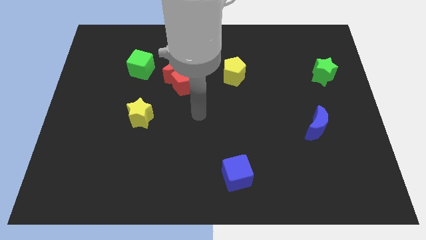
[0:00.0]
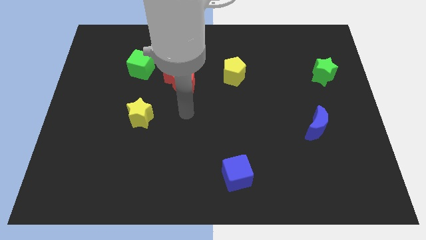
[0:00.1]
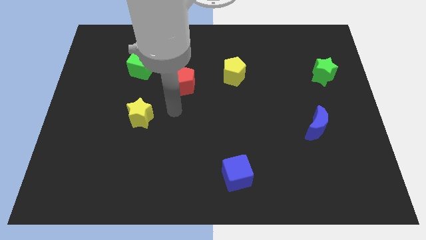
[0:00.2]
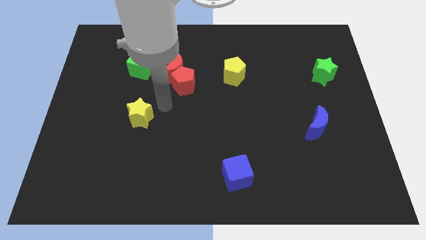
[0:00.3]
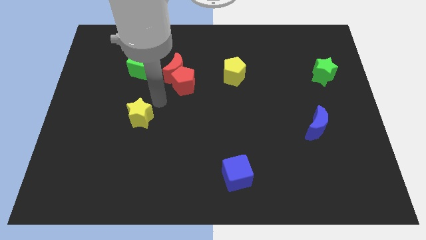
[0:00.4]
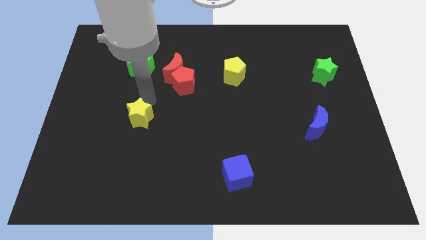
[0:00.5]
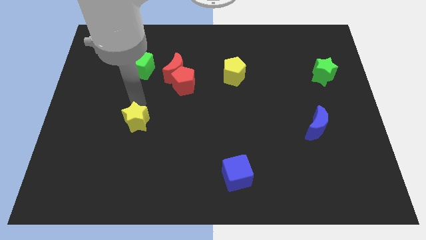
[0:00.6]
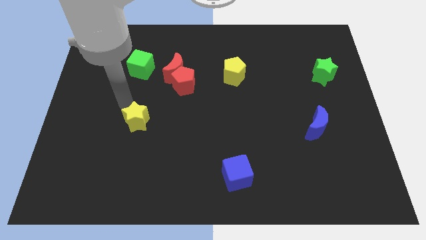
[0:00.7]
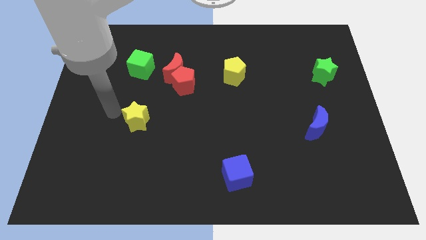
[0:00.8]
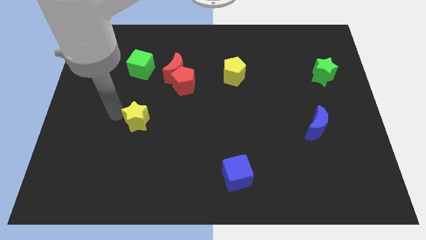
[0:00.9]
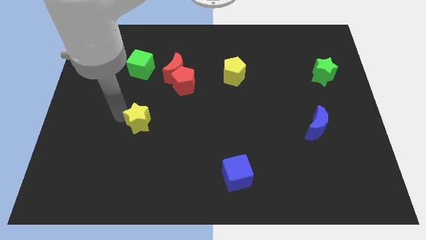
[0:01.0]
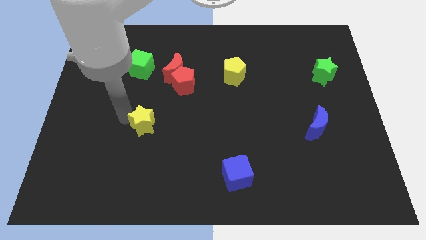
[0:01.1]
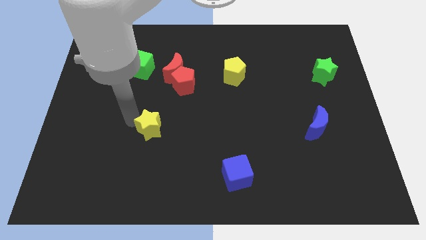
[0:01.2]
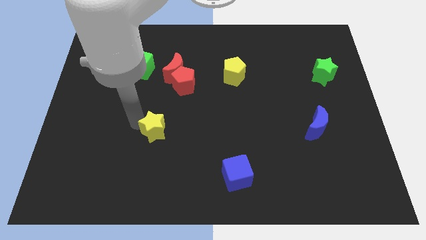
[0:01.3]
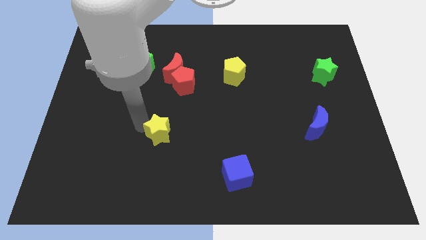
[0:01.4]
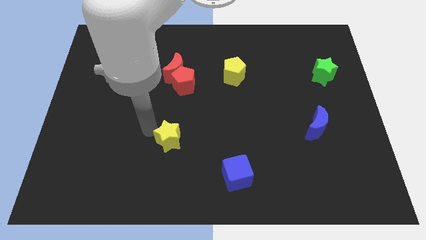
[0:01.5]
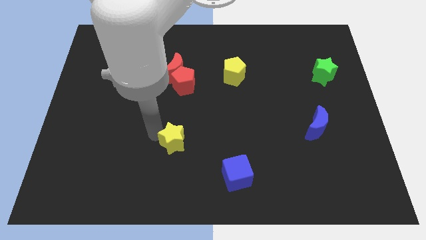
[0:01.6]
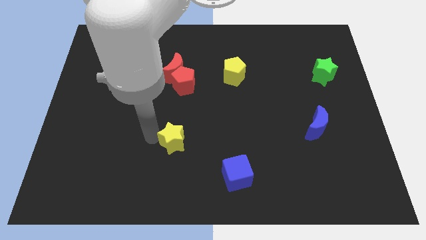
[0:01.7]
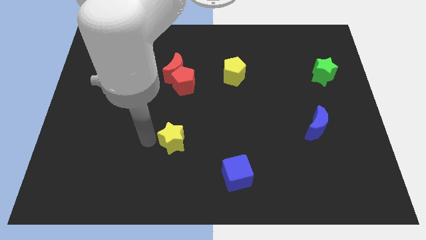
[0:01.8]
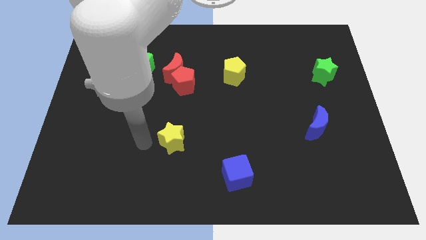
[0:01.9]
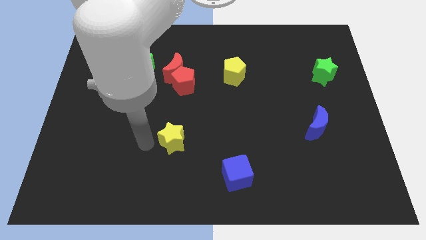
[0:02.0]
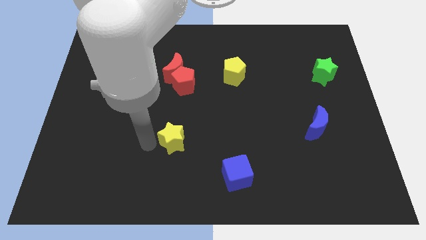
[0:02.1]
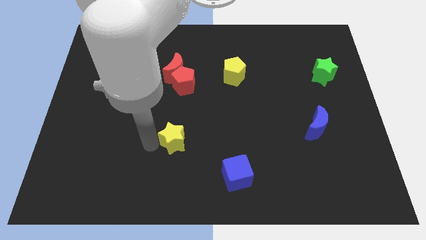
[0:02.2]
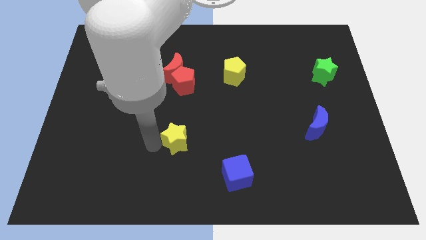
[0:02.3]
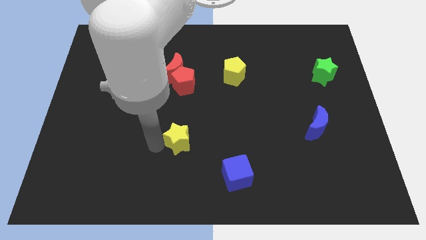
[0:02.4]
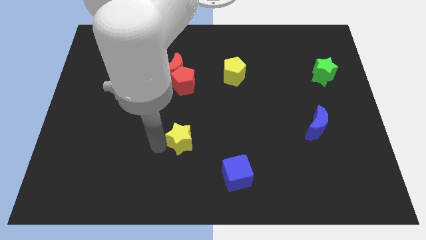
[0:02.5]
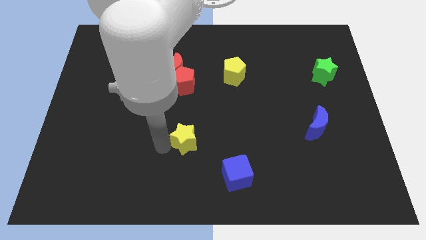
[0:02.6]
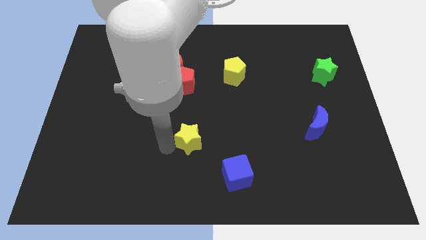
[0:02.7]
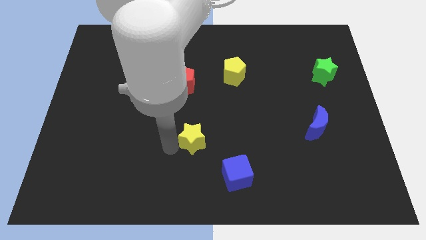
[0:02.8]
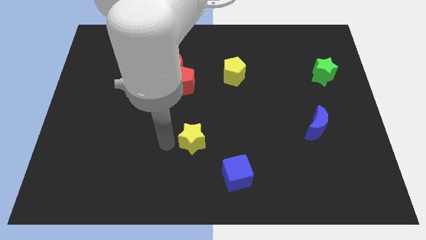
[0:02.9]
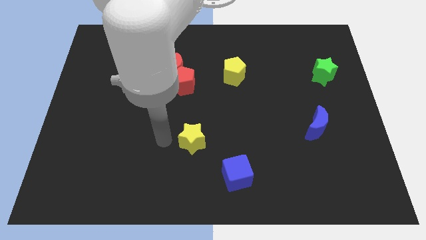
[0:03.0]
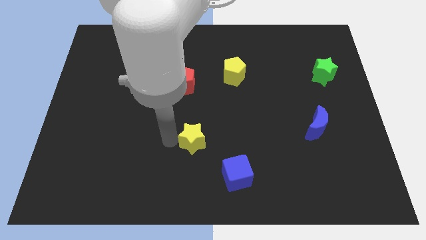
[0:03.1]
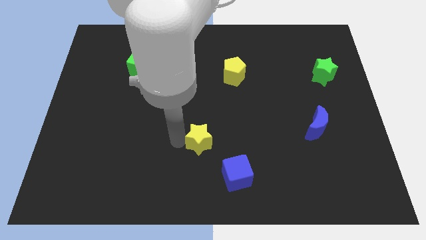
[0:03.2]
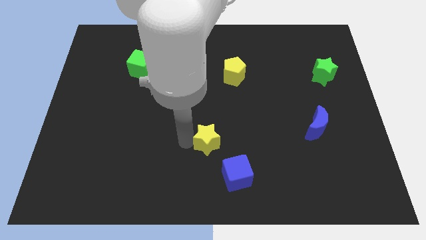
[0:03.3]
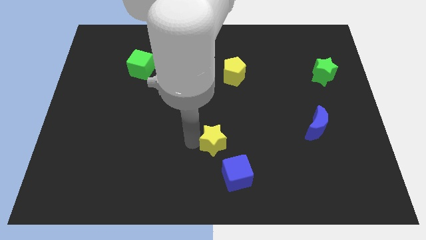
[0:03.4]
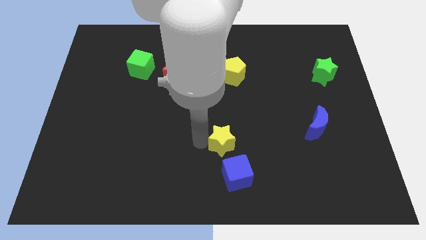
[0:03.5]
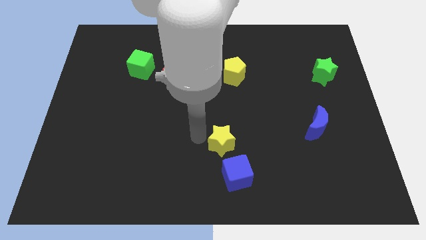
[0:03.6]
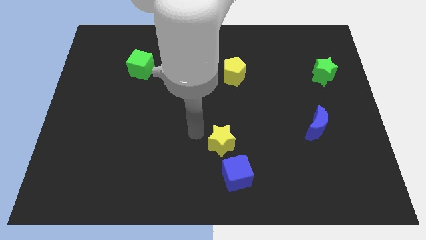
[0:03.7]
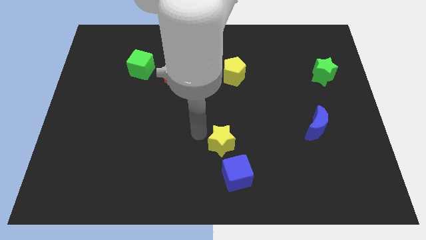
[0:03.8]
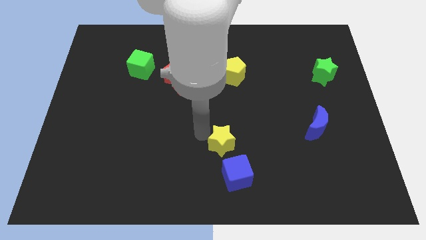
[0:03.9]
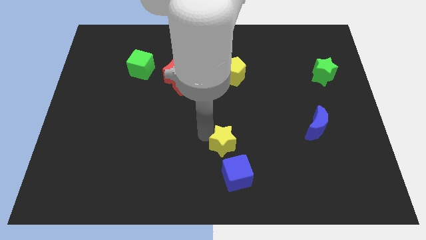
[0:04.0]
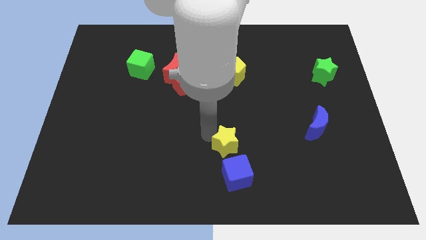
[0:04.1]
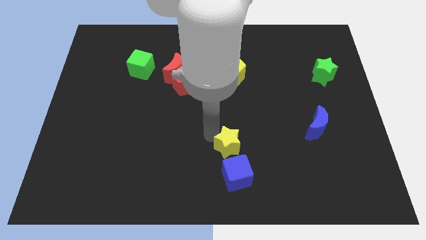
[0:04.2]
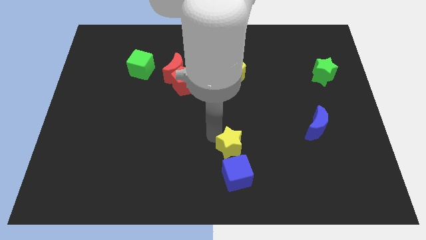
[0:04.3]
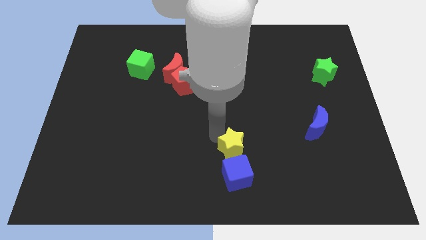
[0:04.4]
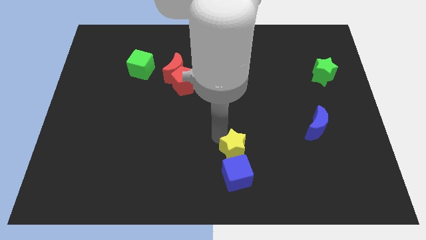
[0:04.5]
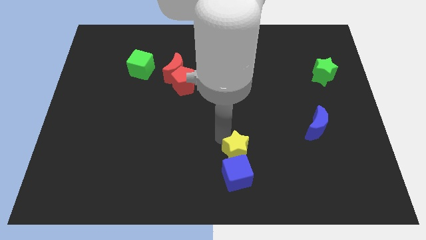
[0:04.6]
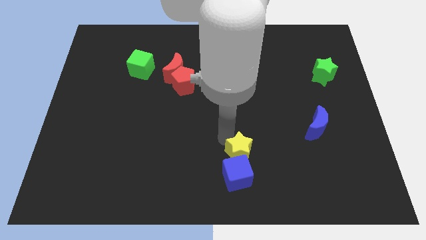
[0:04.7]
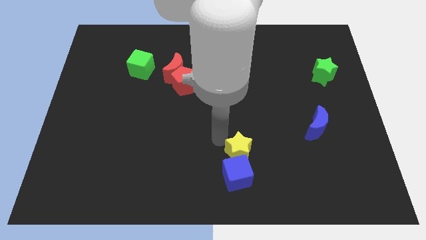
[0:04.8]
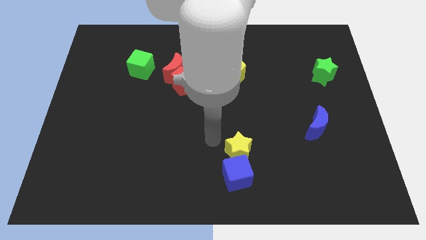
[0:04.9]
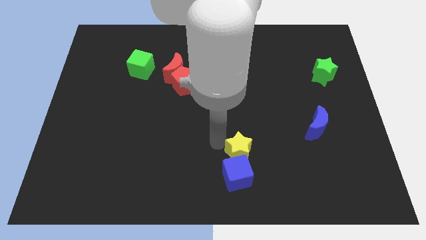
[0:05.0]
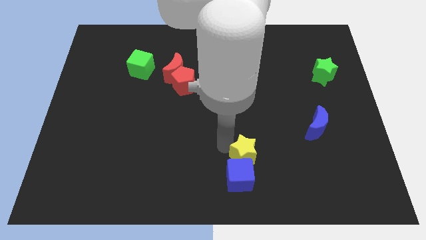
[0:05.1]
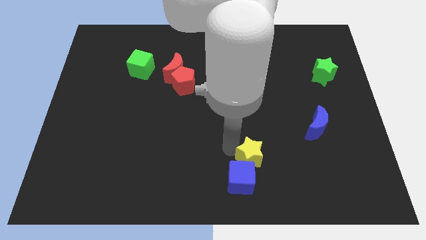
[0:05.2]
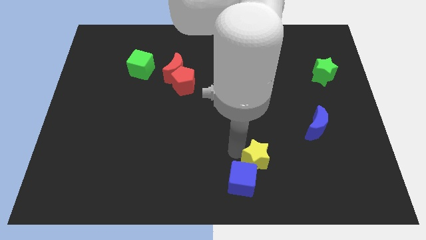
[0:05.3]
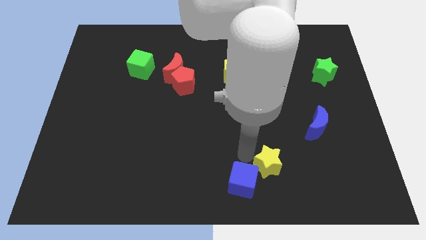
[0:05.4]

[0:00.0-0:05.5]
put the yellow star to the right of the blue cube

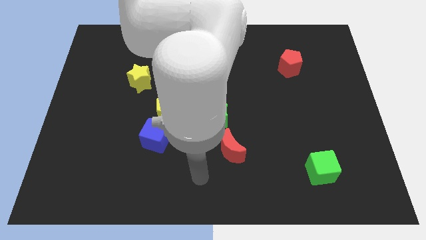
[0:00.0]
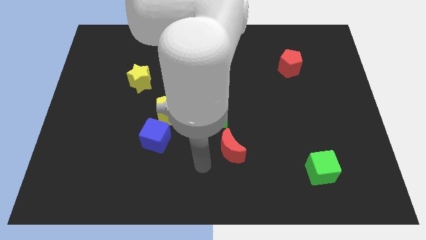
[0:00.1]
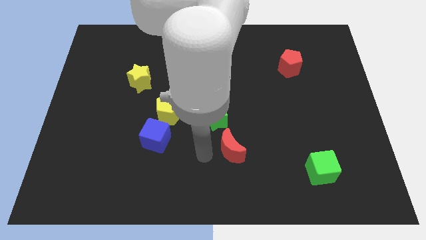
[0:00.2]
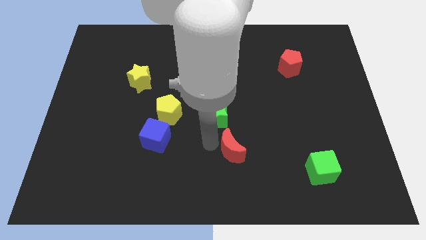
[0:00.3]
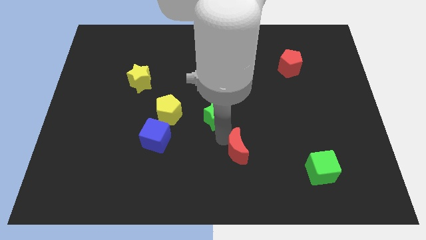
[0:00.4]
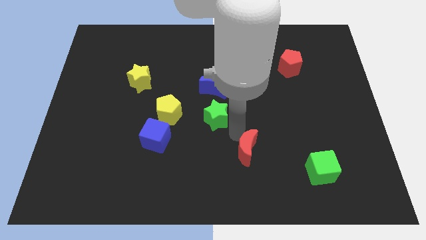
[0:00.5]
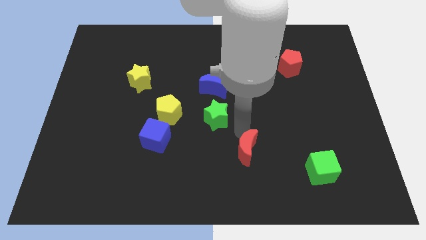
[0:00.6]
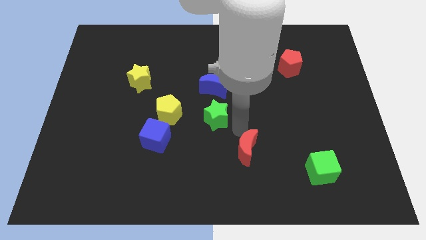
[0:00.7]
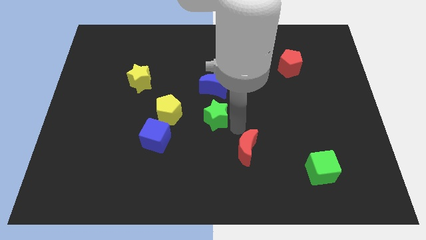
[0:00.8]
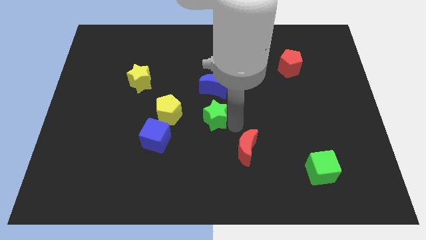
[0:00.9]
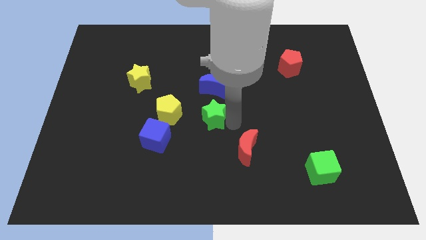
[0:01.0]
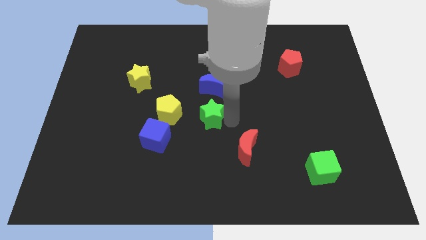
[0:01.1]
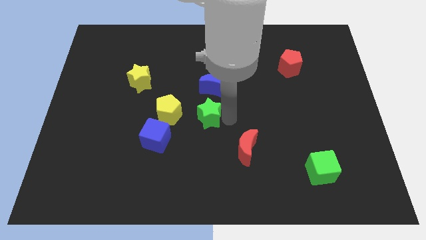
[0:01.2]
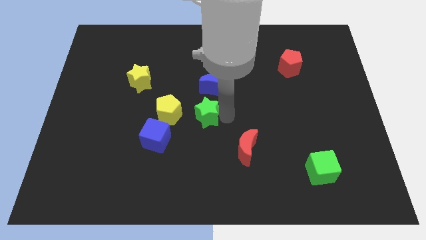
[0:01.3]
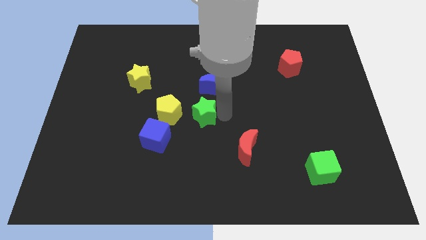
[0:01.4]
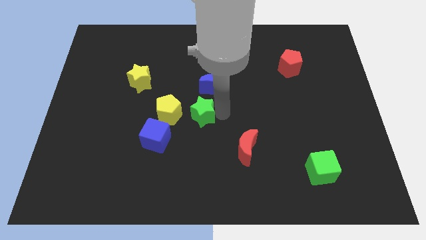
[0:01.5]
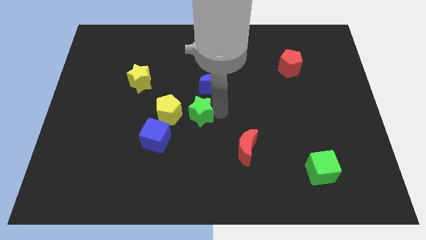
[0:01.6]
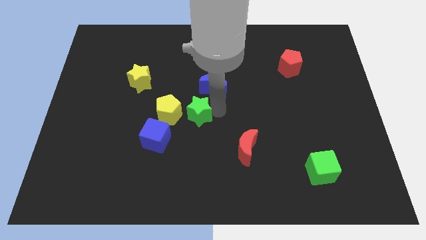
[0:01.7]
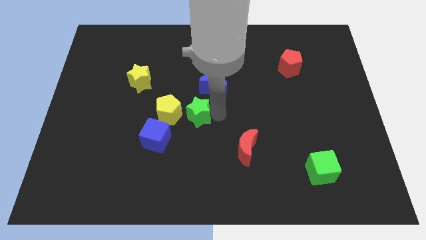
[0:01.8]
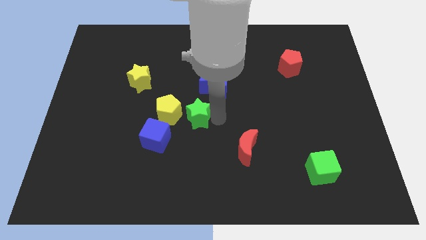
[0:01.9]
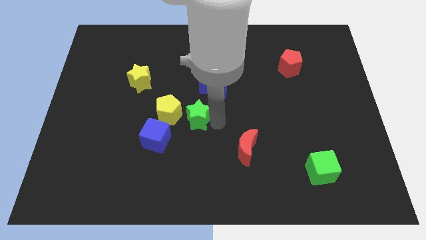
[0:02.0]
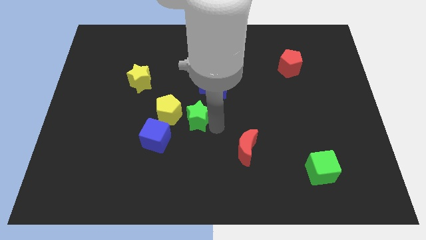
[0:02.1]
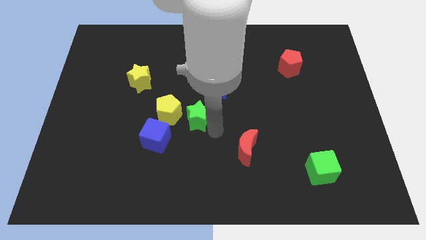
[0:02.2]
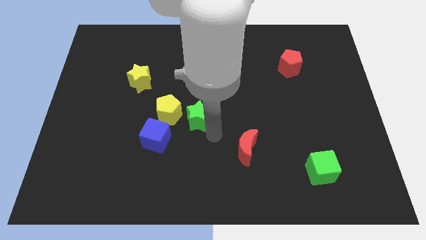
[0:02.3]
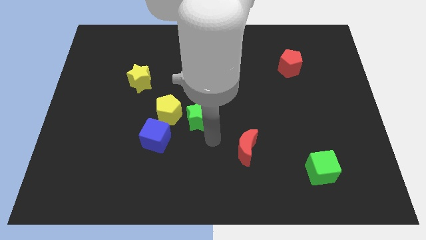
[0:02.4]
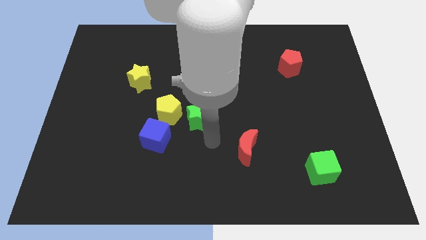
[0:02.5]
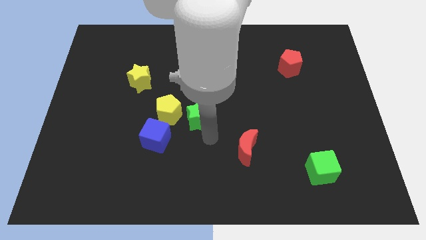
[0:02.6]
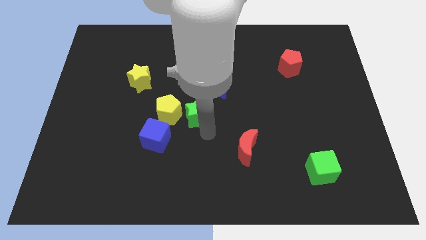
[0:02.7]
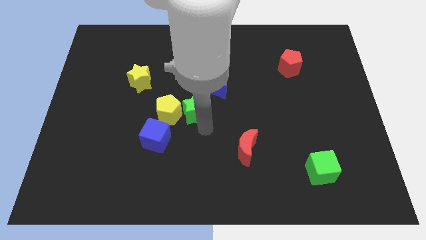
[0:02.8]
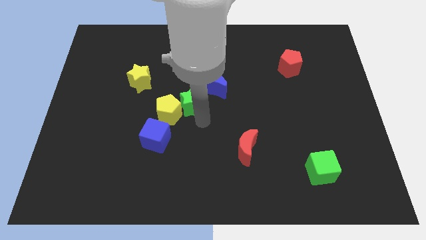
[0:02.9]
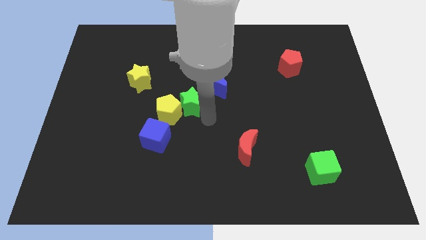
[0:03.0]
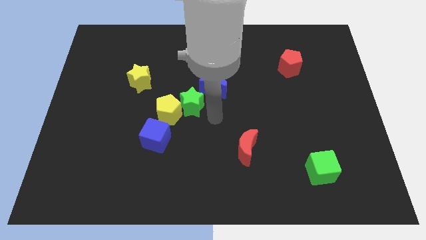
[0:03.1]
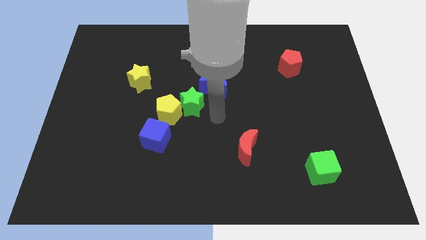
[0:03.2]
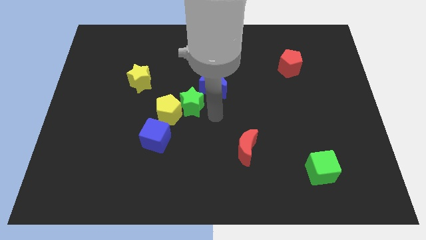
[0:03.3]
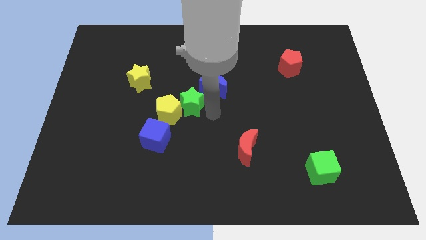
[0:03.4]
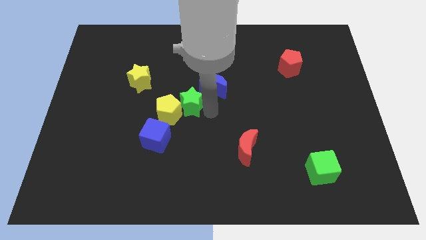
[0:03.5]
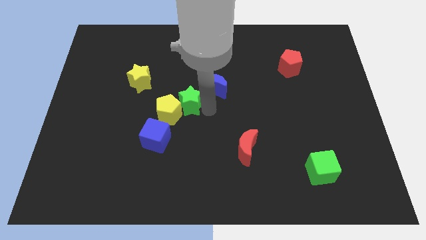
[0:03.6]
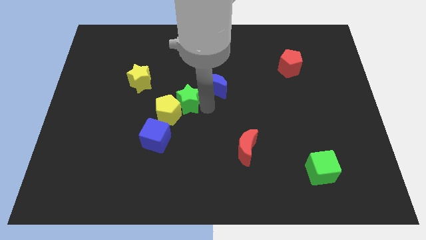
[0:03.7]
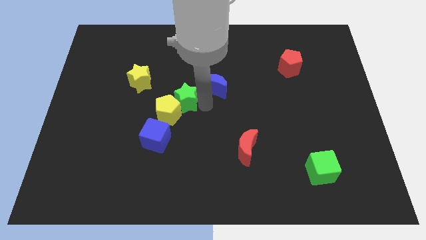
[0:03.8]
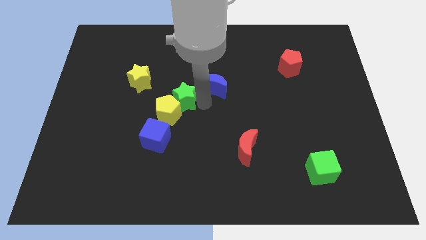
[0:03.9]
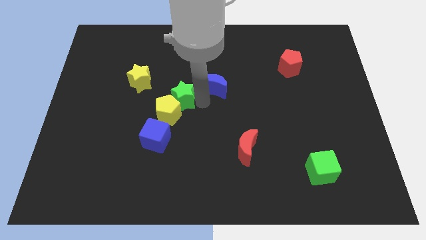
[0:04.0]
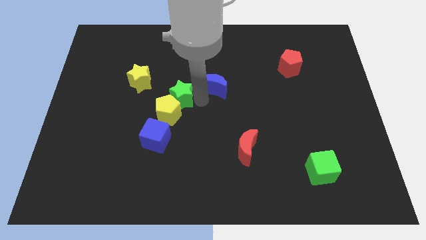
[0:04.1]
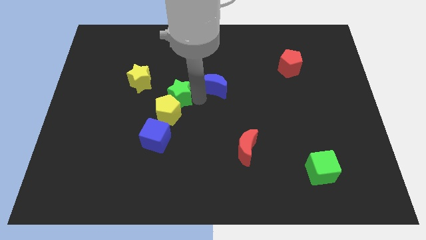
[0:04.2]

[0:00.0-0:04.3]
push the green star to the top of the blue cube
